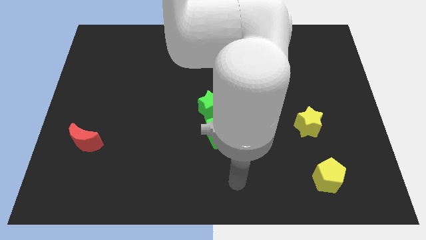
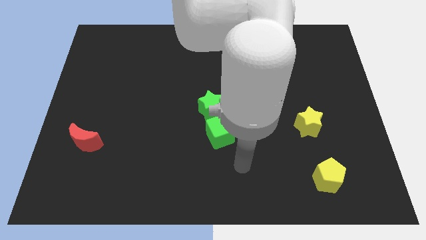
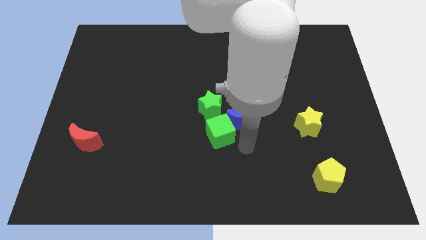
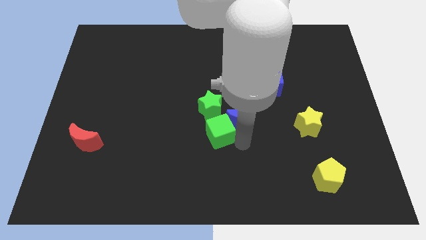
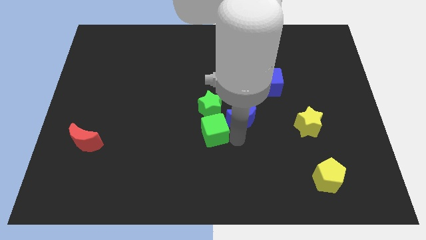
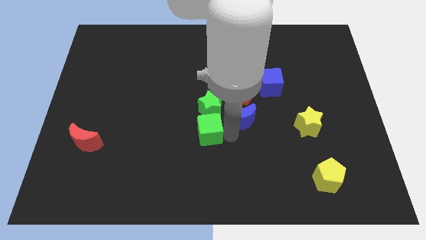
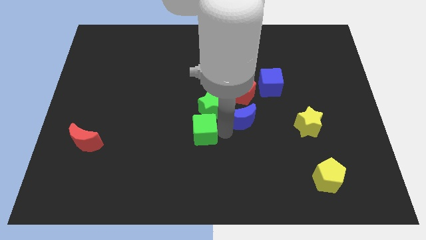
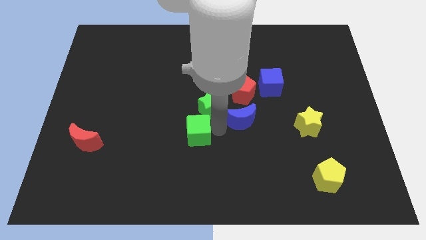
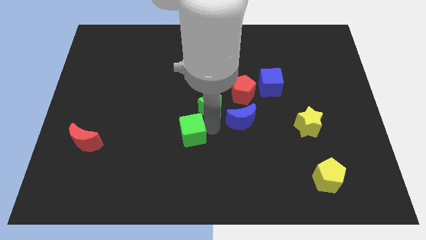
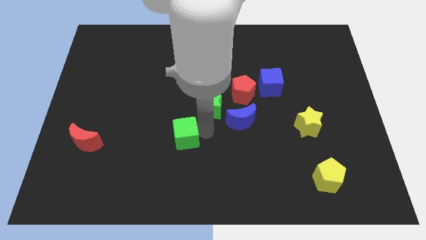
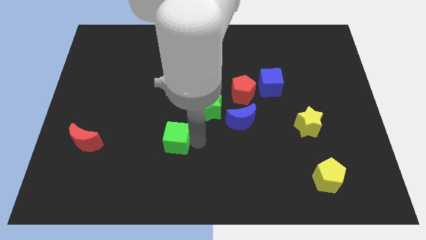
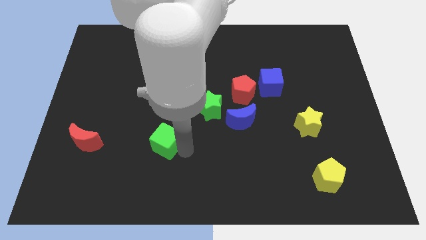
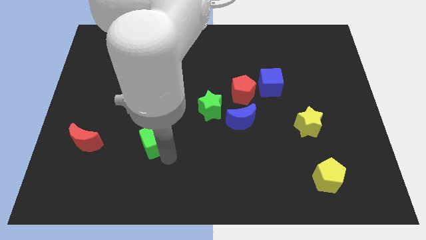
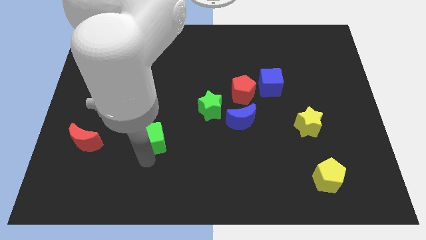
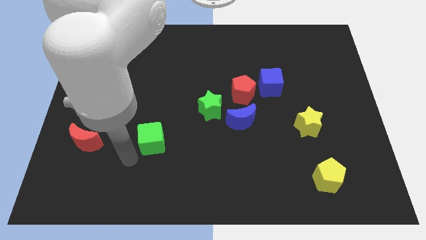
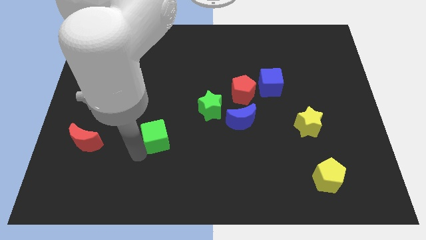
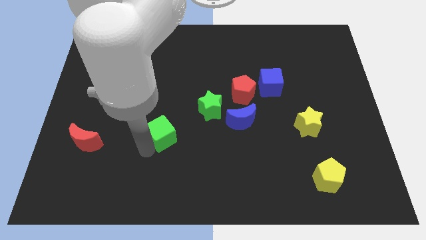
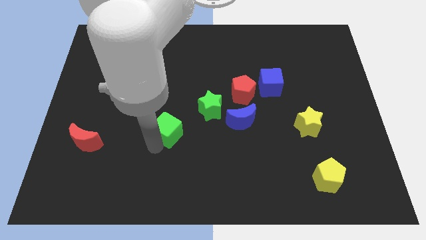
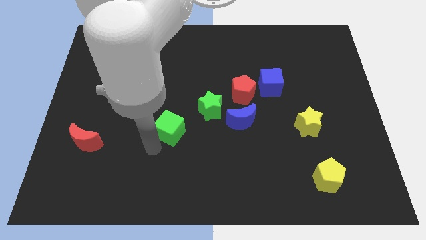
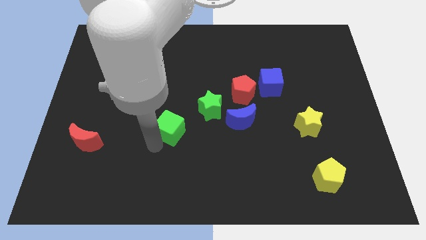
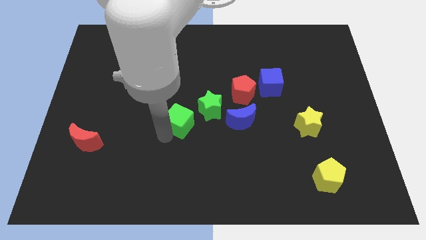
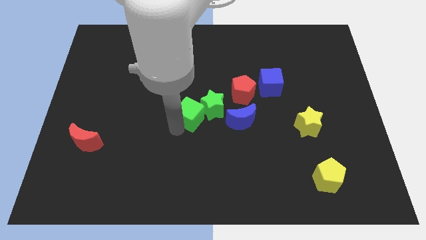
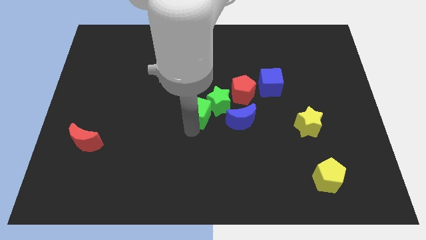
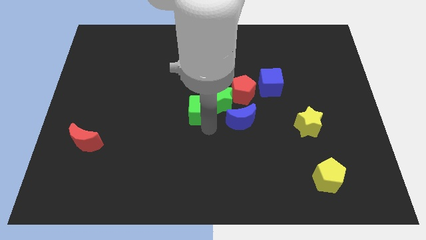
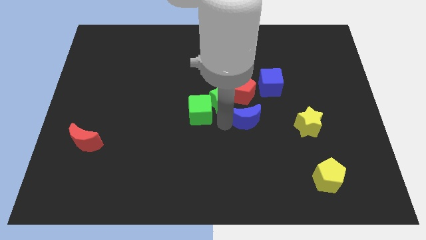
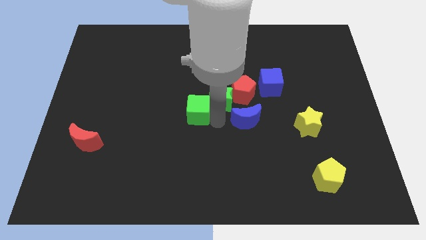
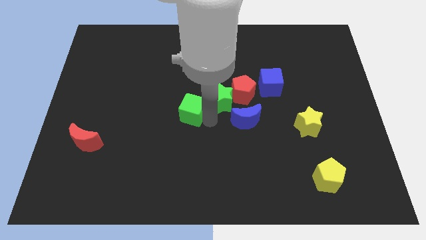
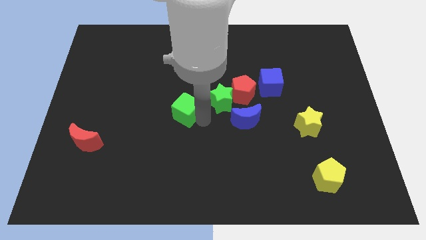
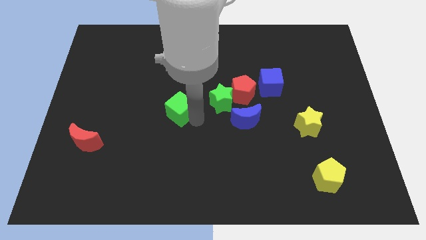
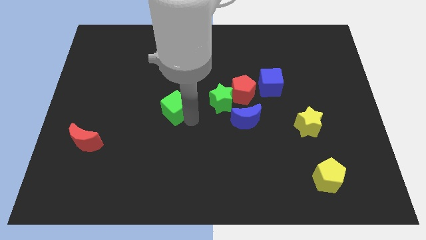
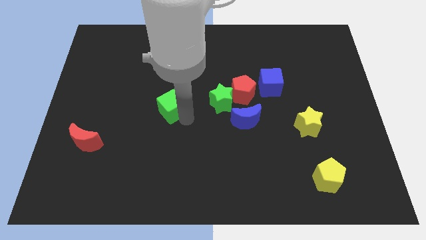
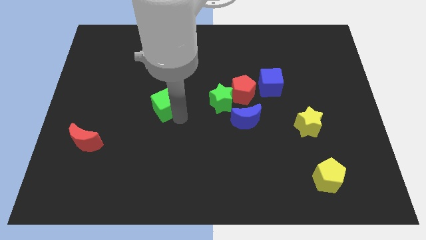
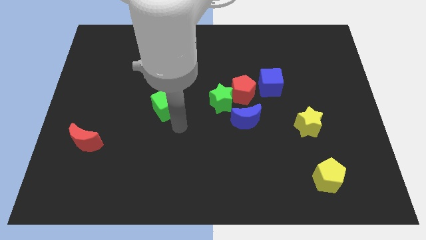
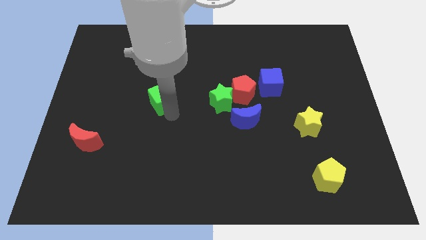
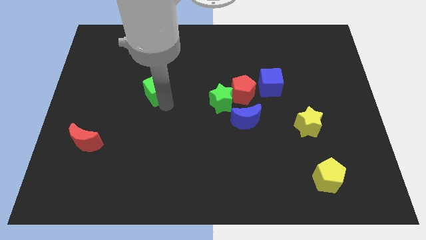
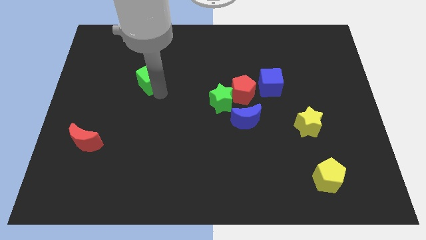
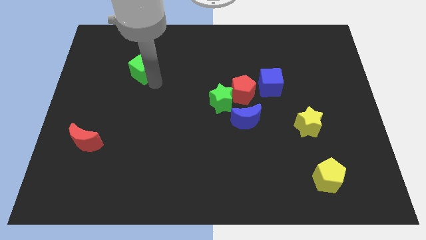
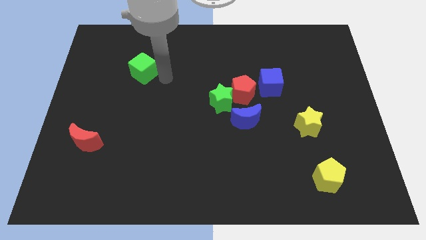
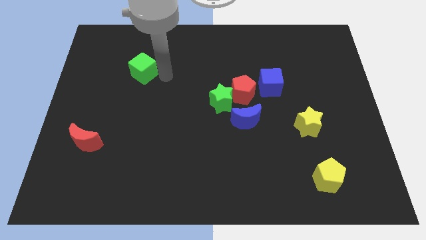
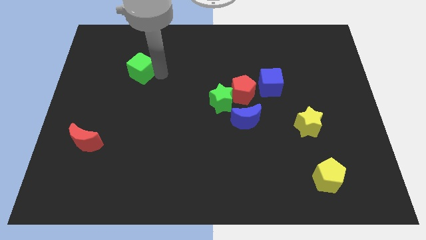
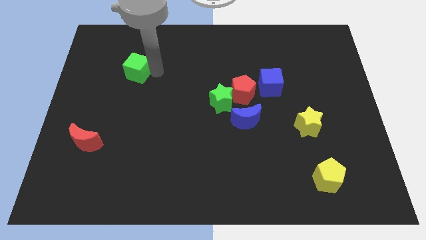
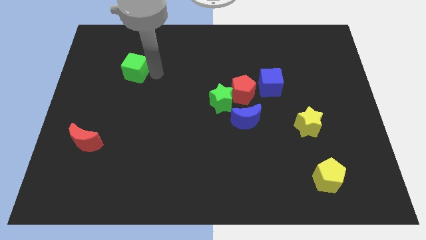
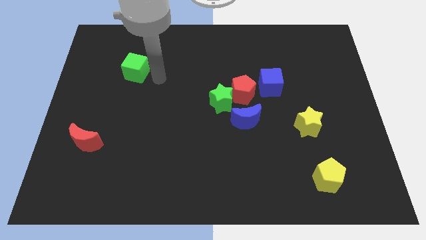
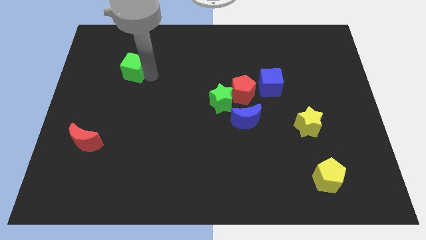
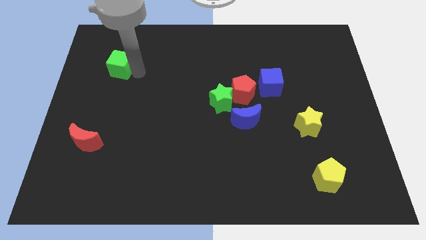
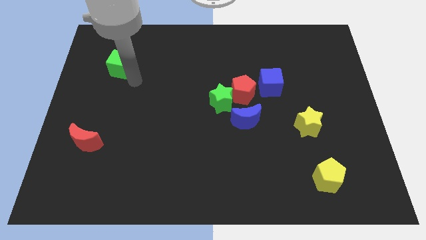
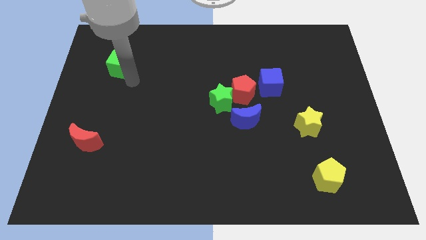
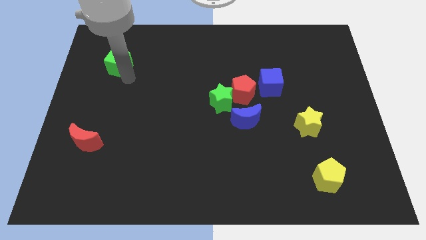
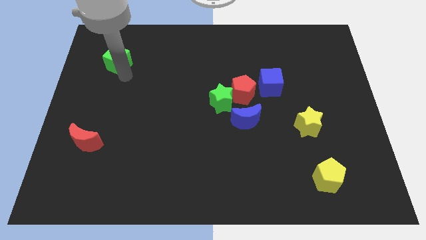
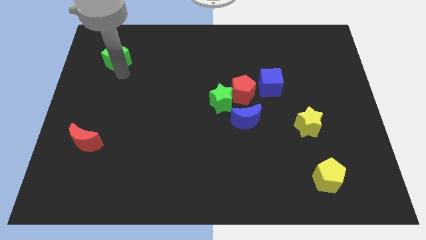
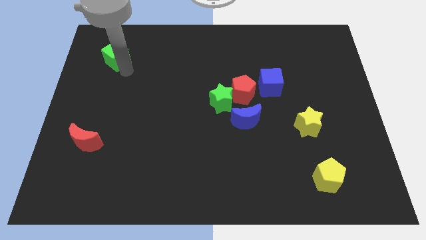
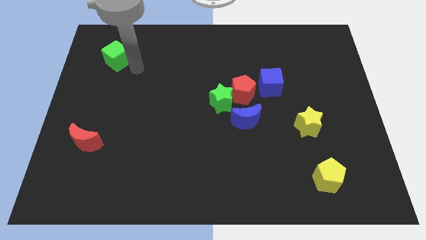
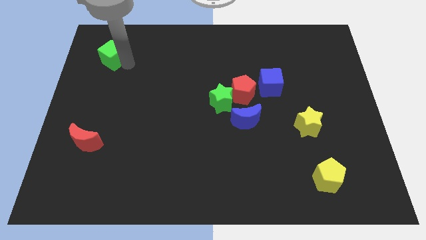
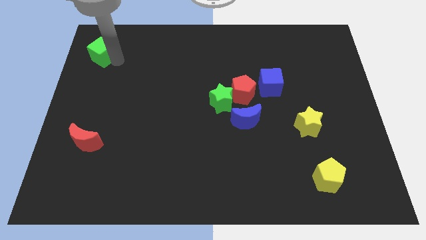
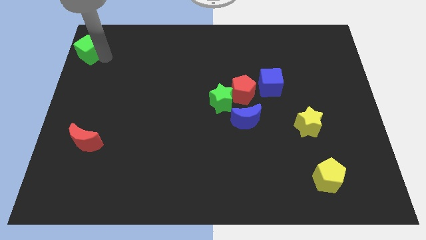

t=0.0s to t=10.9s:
push the green cube to the top left corner

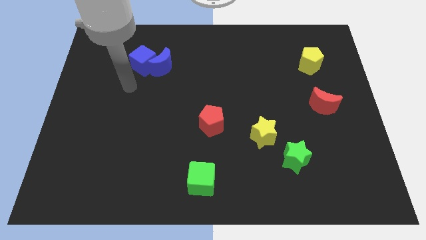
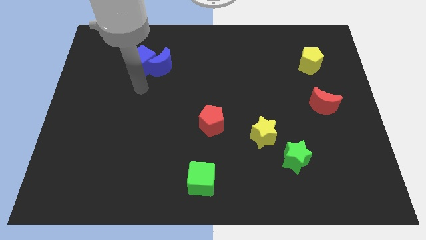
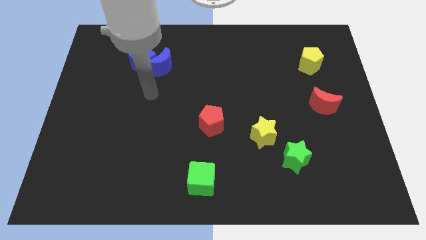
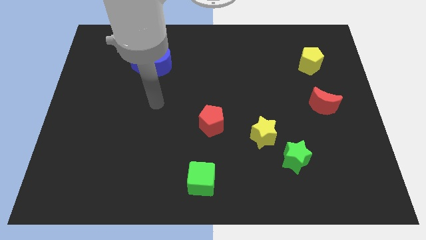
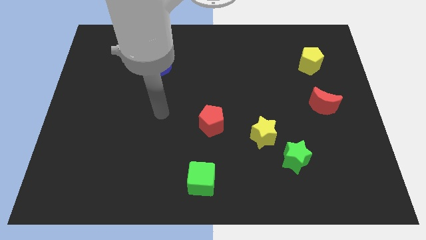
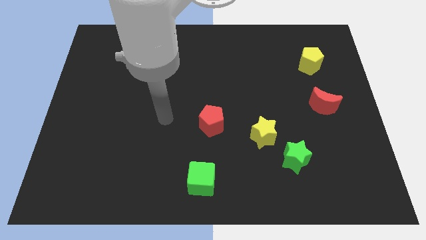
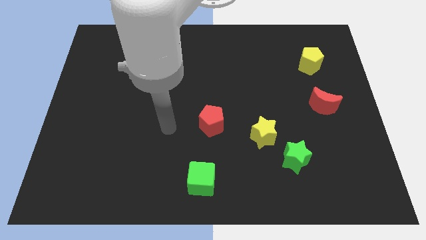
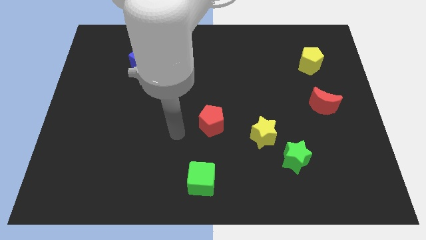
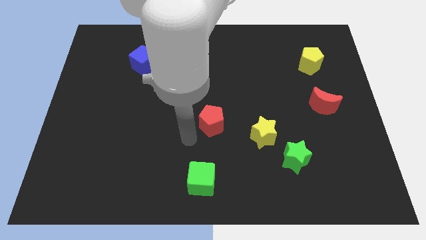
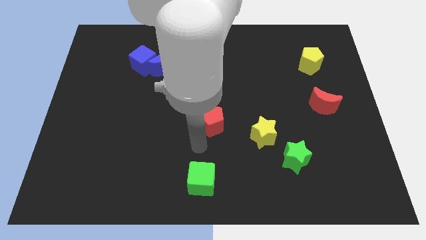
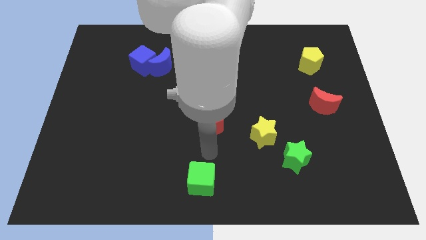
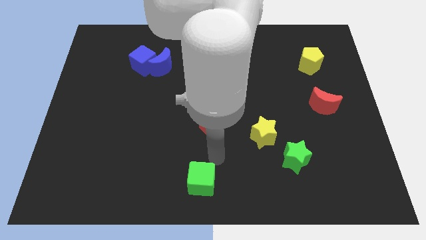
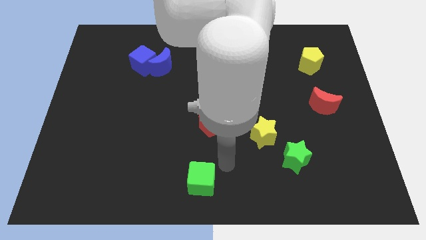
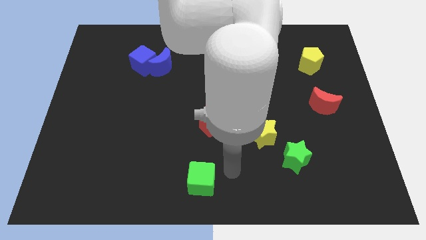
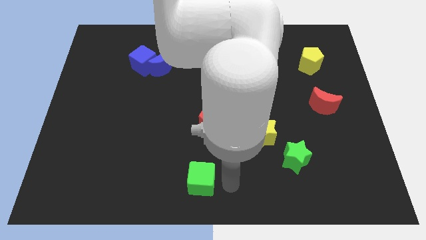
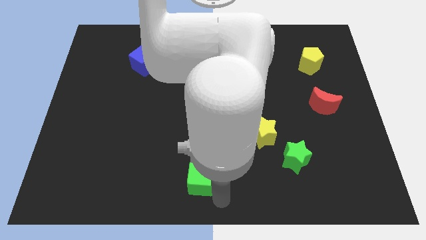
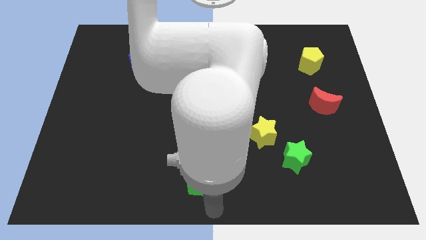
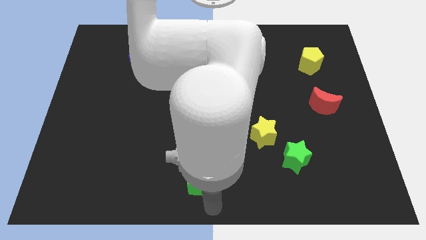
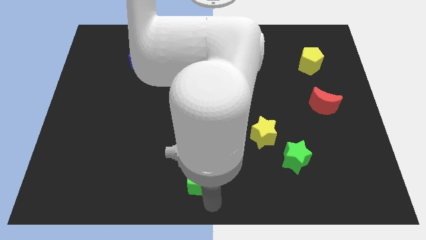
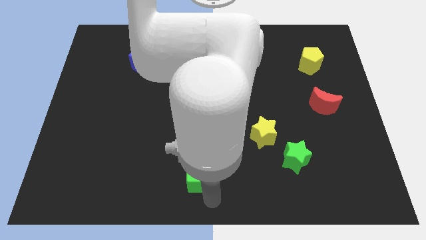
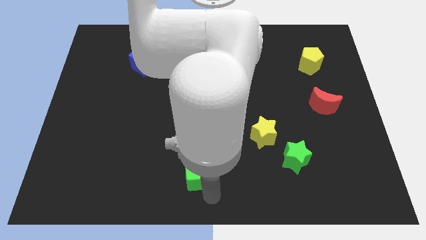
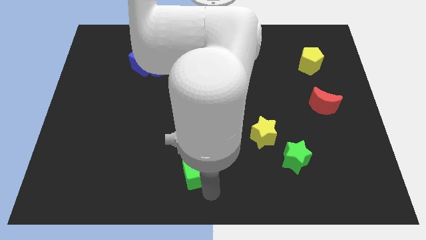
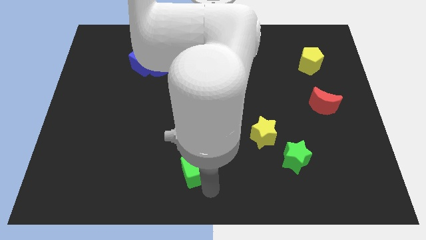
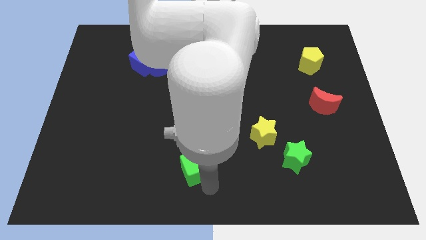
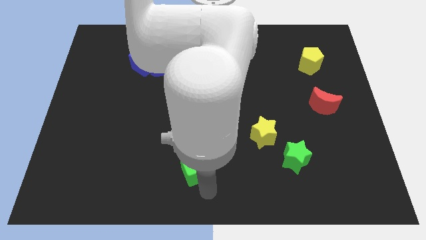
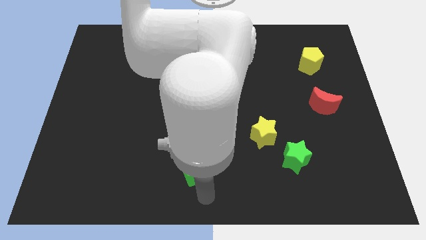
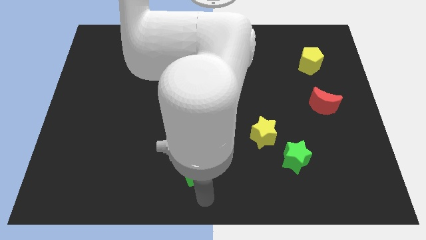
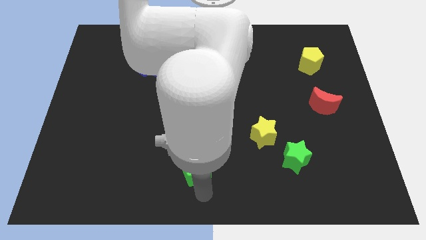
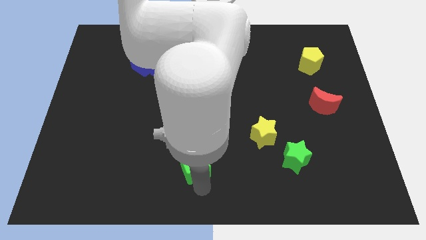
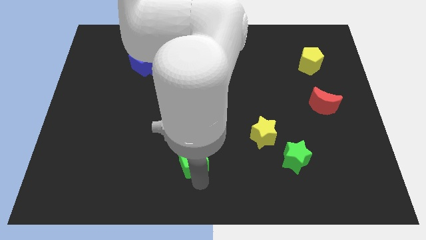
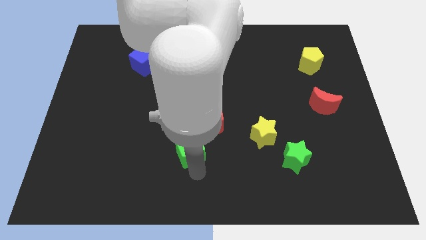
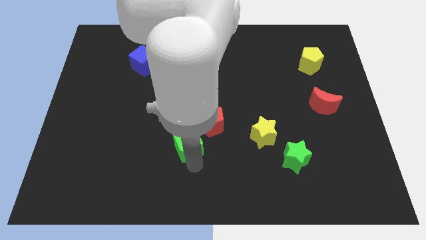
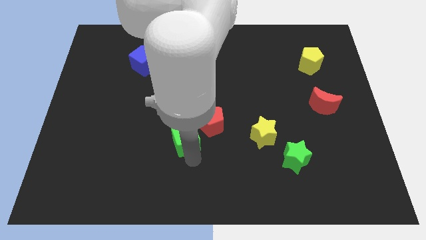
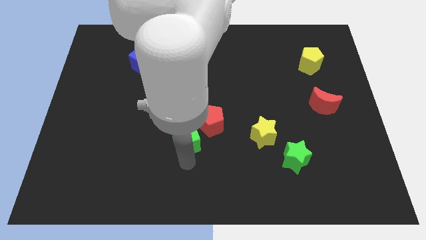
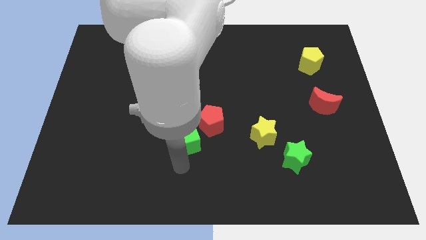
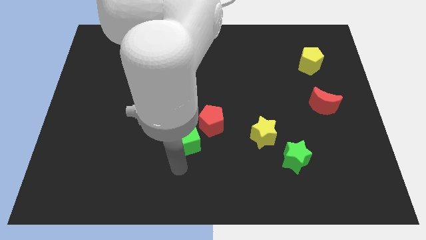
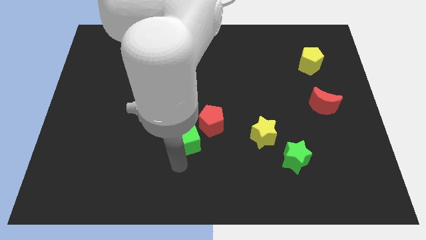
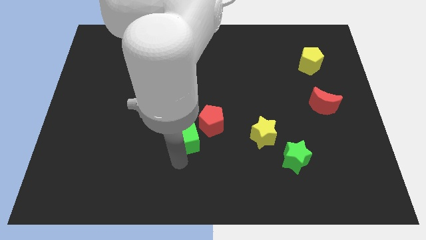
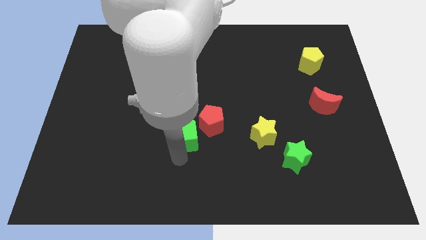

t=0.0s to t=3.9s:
slide the green cube to the middle of the board
